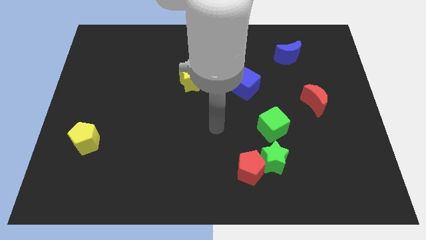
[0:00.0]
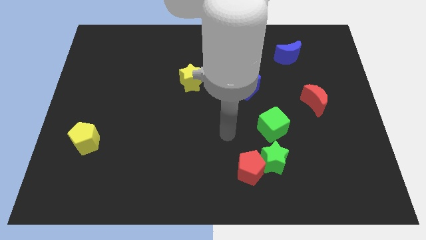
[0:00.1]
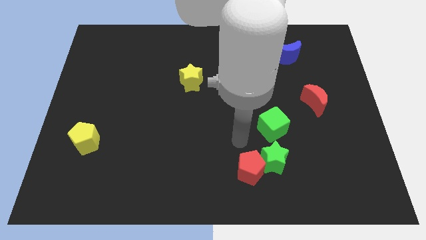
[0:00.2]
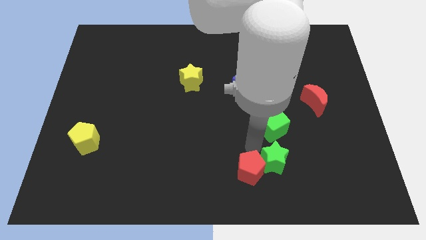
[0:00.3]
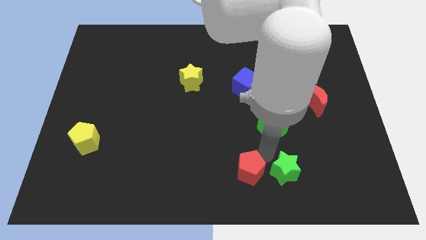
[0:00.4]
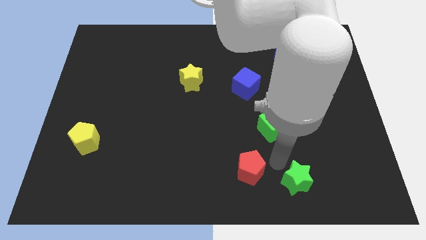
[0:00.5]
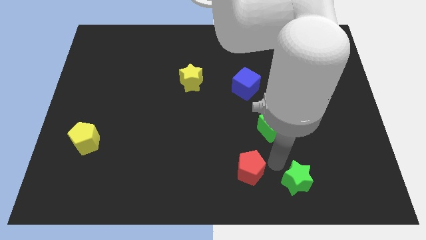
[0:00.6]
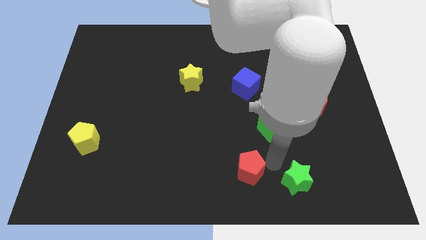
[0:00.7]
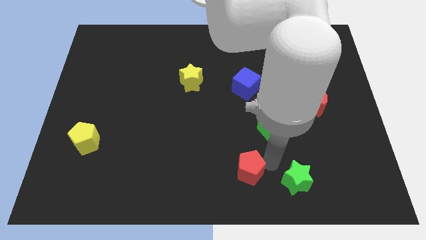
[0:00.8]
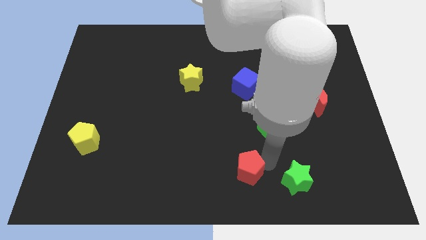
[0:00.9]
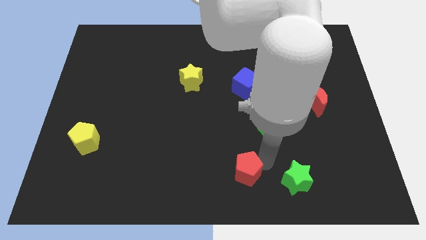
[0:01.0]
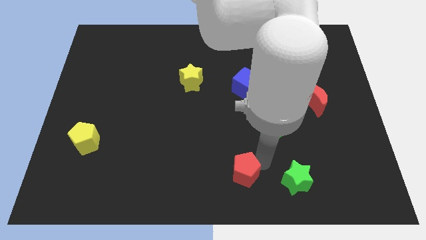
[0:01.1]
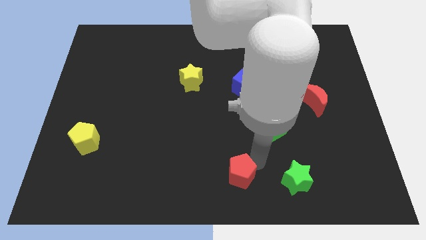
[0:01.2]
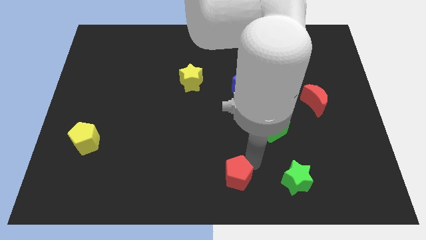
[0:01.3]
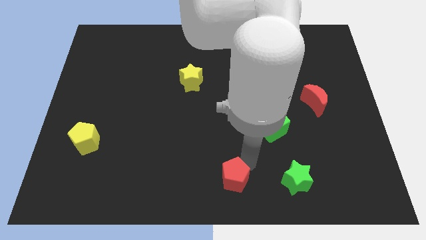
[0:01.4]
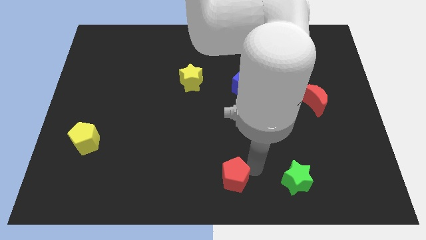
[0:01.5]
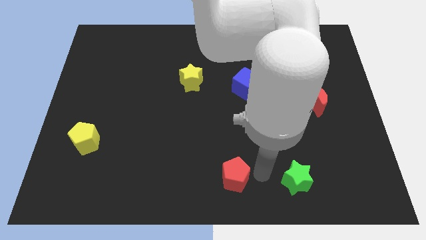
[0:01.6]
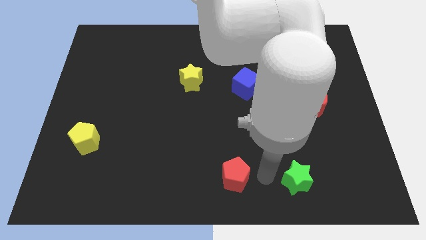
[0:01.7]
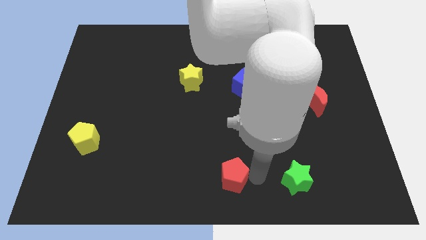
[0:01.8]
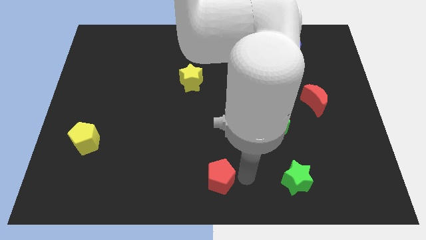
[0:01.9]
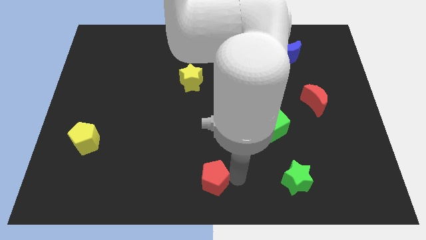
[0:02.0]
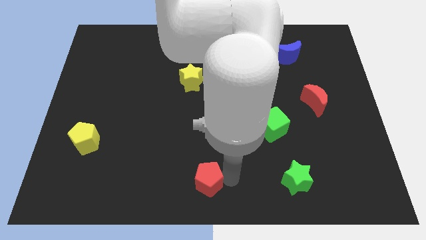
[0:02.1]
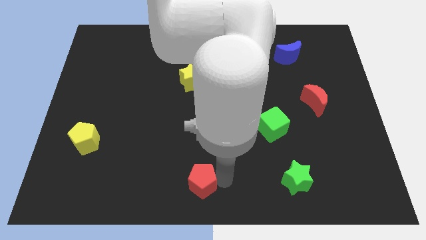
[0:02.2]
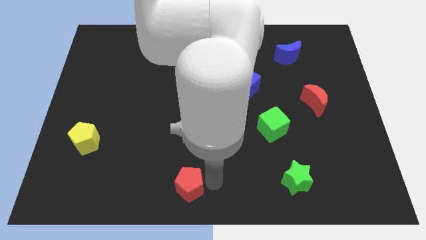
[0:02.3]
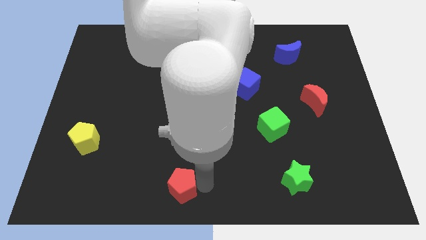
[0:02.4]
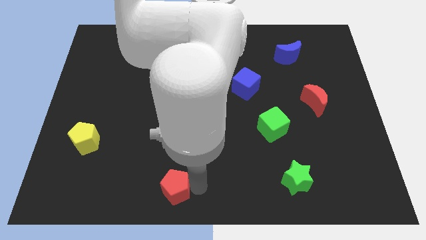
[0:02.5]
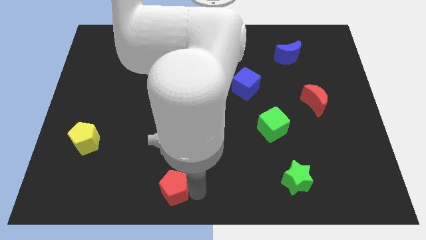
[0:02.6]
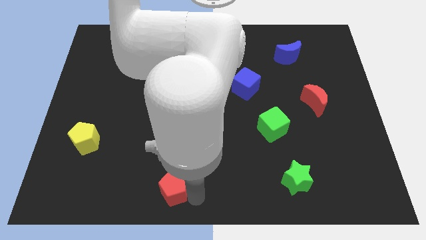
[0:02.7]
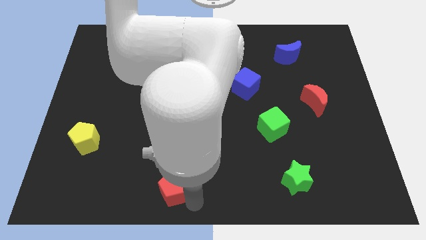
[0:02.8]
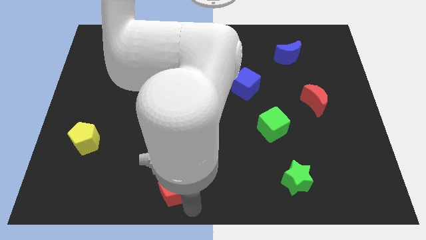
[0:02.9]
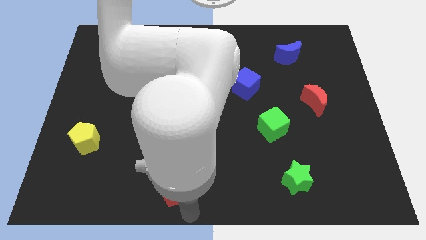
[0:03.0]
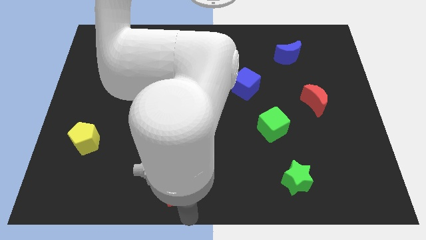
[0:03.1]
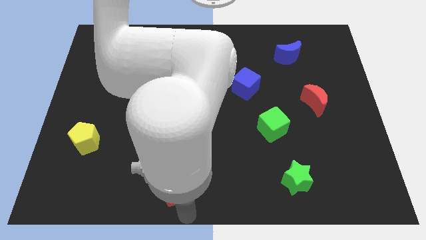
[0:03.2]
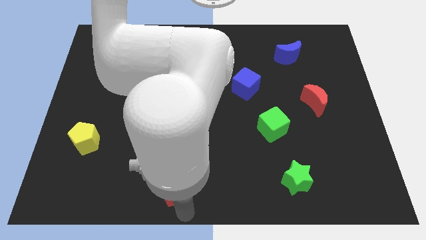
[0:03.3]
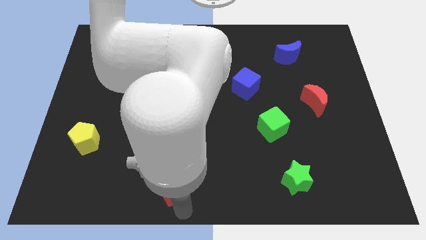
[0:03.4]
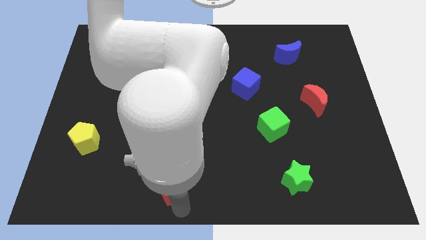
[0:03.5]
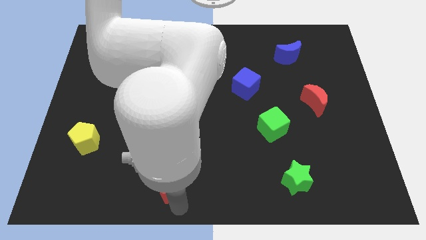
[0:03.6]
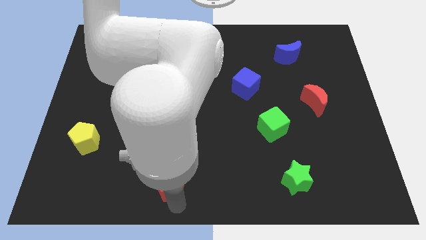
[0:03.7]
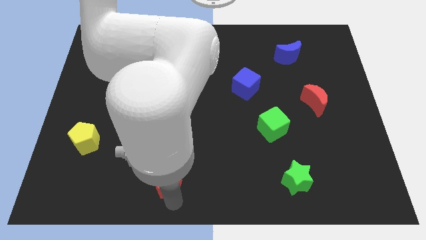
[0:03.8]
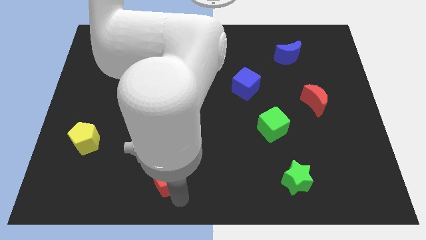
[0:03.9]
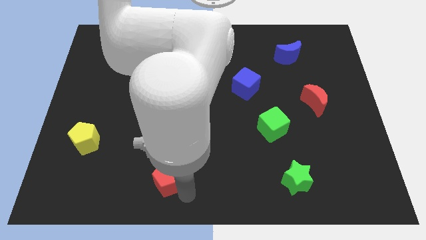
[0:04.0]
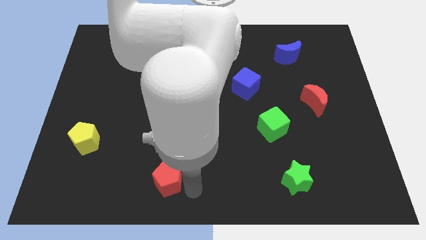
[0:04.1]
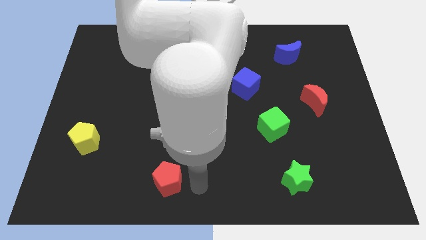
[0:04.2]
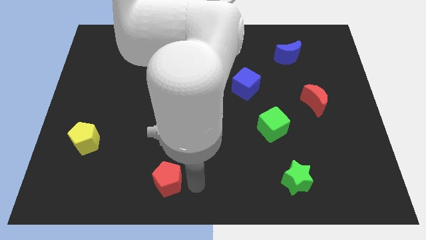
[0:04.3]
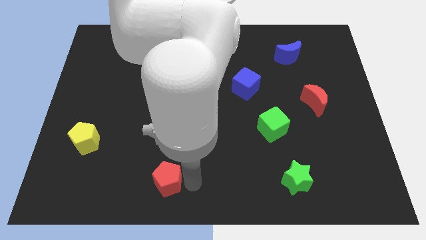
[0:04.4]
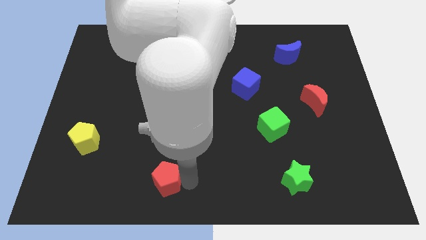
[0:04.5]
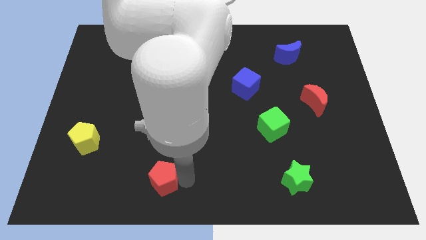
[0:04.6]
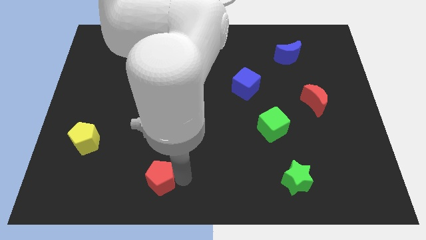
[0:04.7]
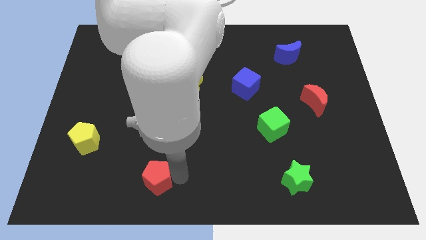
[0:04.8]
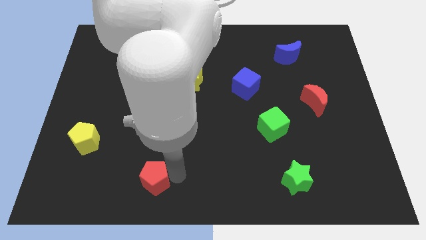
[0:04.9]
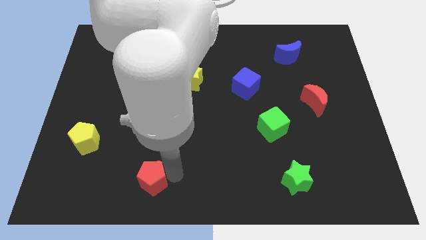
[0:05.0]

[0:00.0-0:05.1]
move the red pentagon left

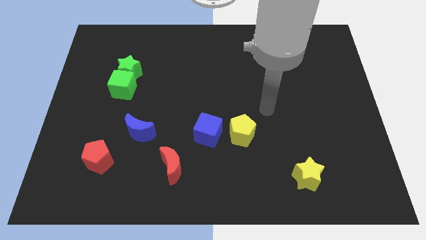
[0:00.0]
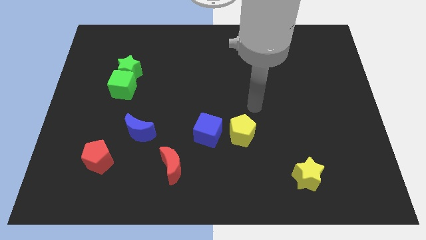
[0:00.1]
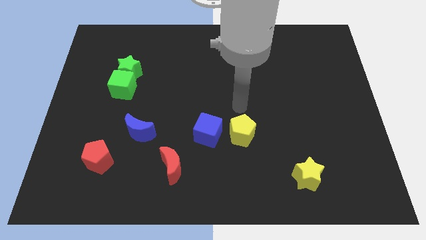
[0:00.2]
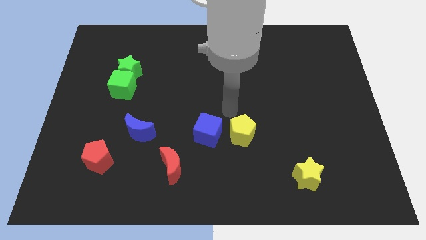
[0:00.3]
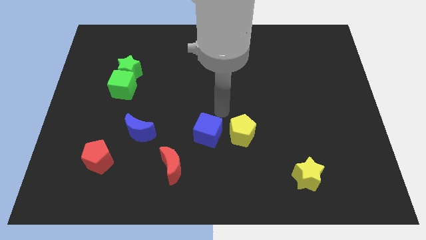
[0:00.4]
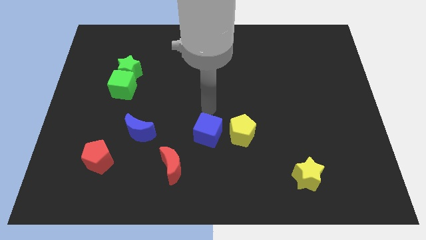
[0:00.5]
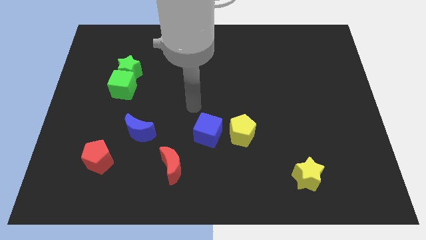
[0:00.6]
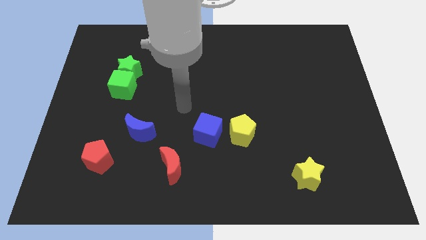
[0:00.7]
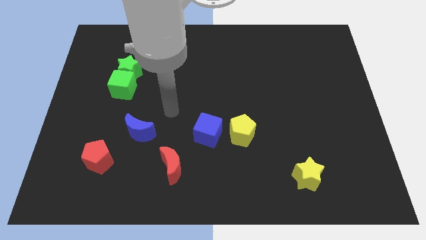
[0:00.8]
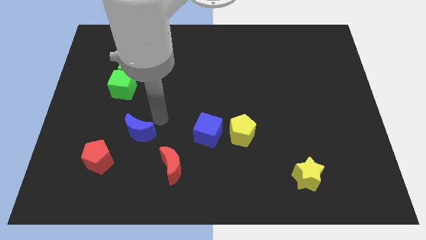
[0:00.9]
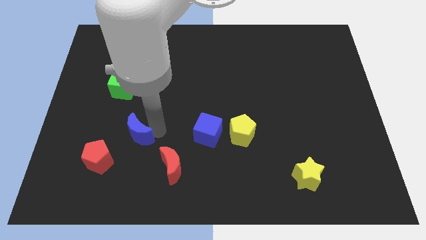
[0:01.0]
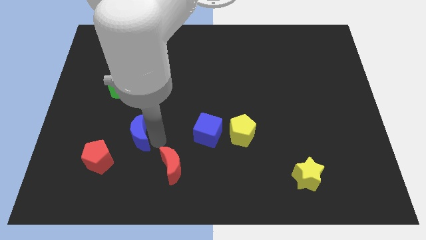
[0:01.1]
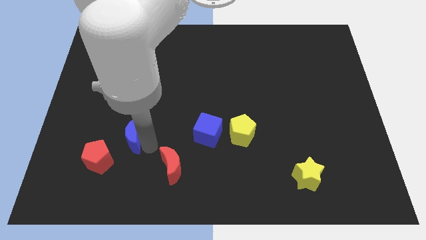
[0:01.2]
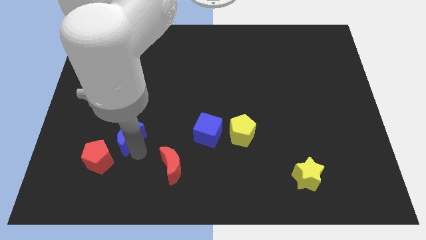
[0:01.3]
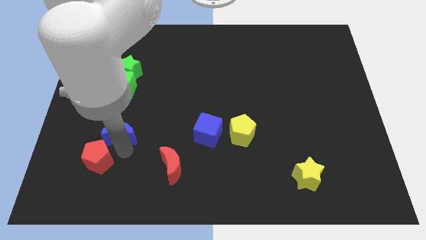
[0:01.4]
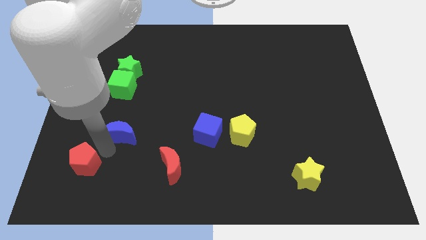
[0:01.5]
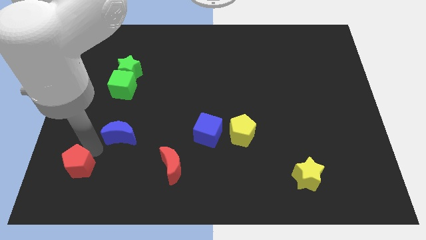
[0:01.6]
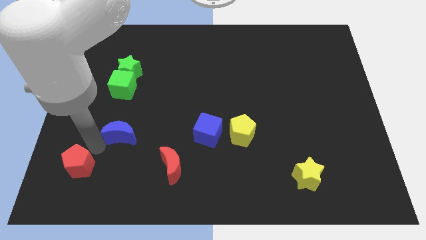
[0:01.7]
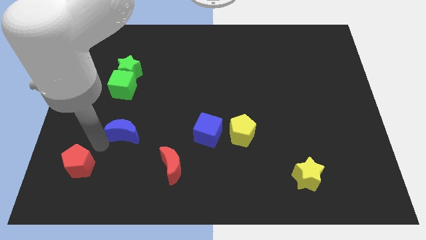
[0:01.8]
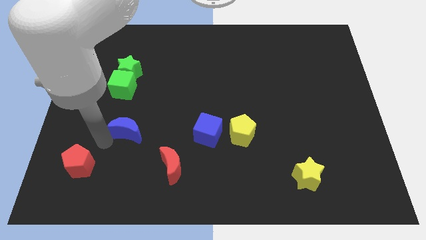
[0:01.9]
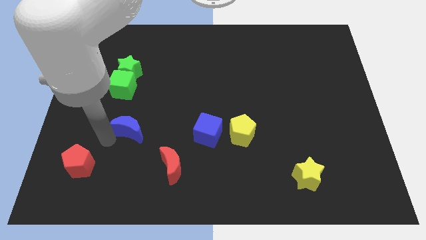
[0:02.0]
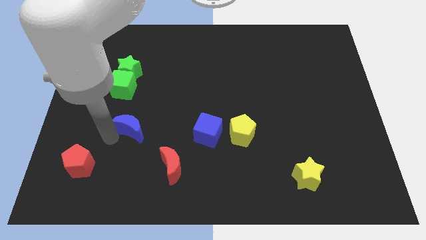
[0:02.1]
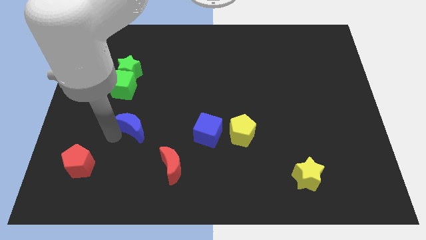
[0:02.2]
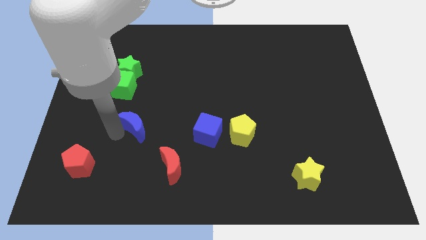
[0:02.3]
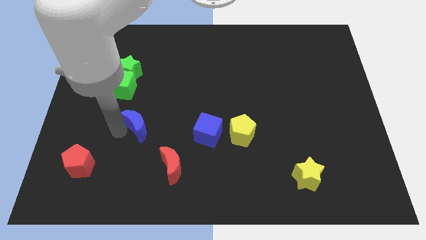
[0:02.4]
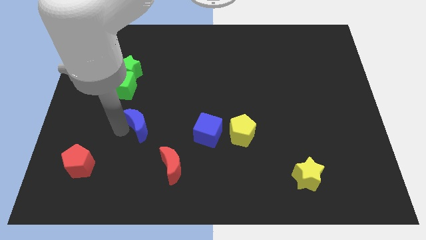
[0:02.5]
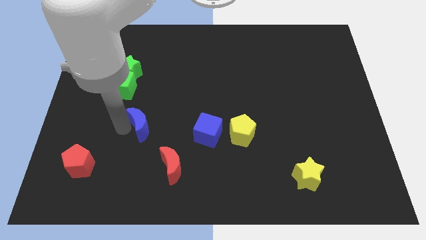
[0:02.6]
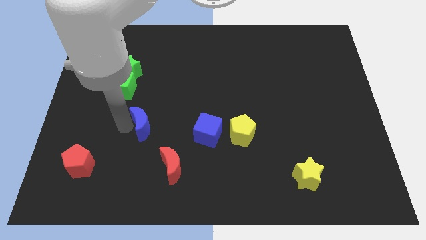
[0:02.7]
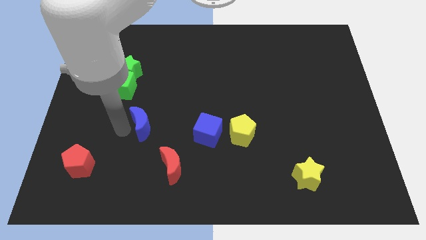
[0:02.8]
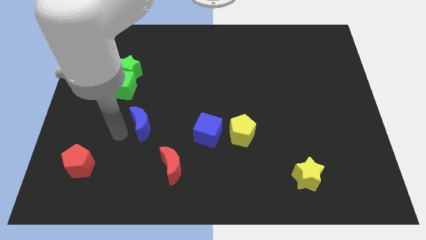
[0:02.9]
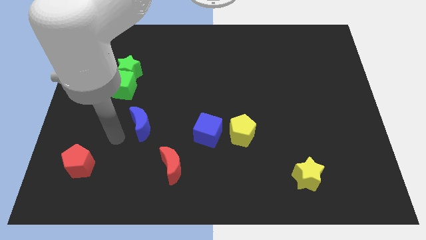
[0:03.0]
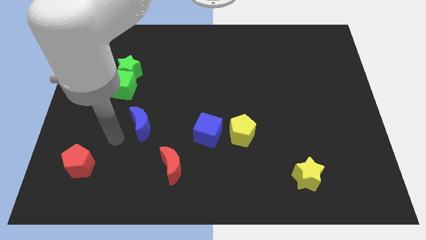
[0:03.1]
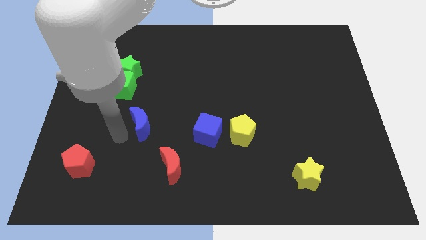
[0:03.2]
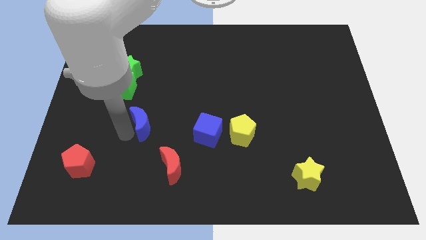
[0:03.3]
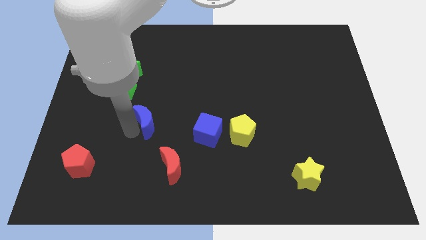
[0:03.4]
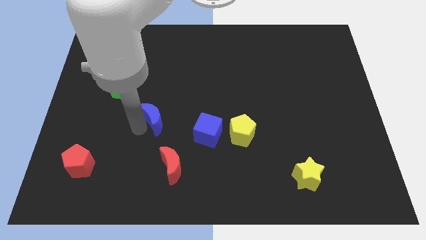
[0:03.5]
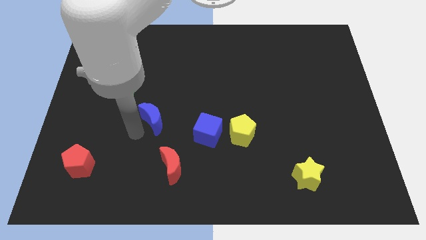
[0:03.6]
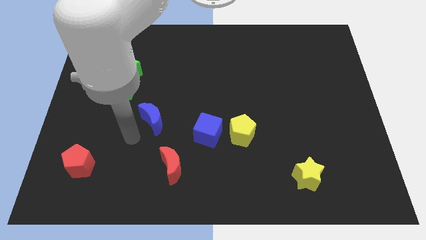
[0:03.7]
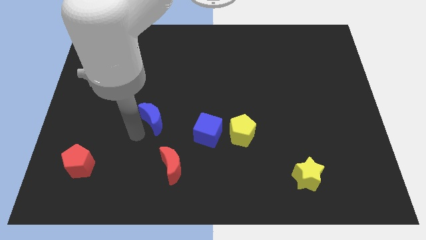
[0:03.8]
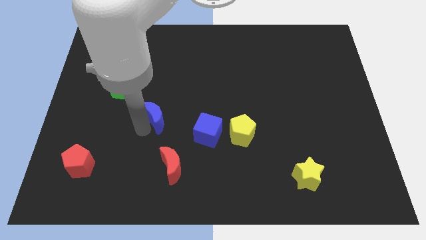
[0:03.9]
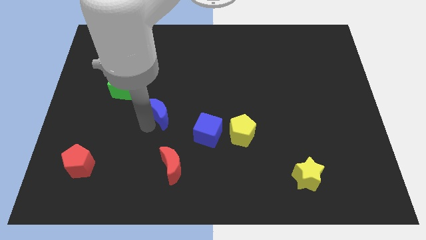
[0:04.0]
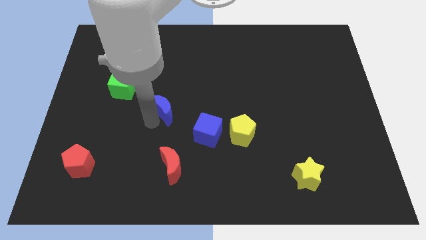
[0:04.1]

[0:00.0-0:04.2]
slightly slide the blue moon up and then right
